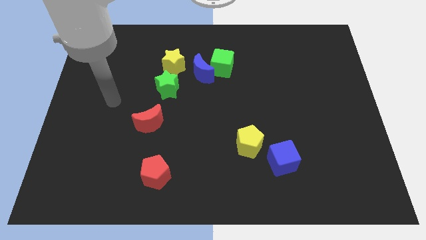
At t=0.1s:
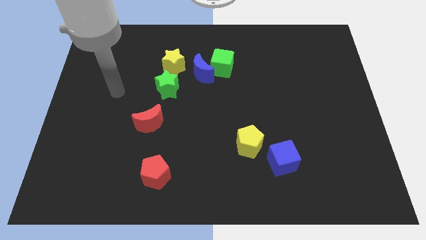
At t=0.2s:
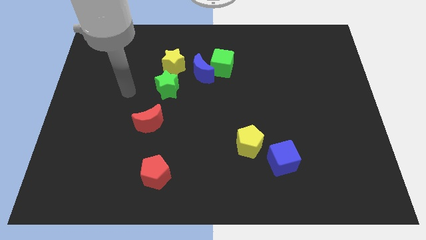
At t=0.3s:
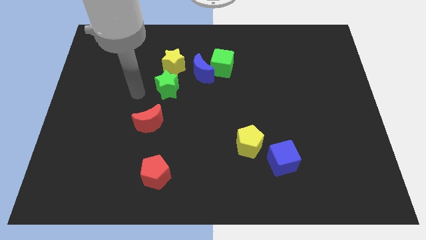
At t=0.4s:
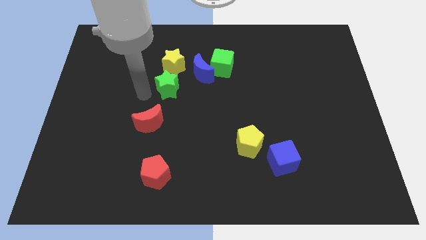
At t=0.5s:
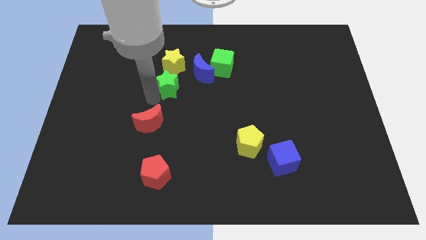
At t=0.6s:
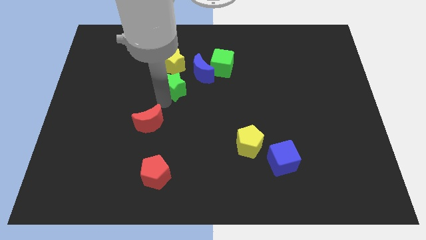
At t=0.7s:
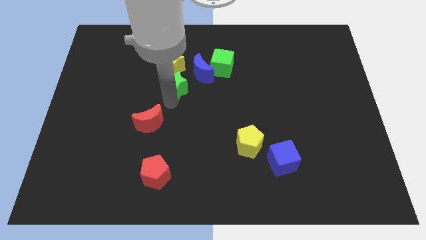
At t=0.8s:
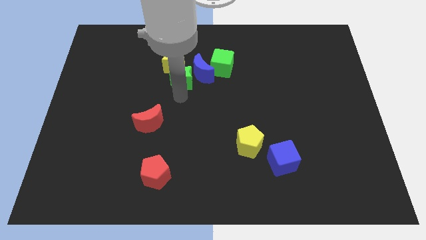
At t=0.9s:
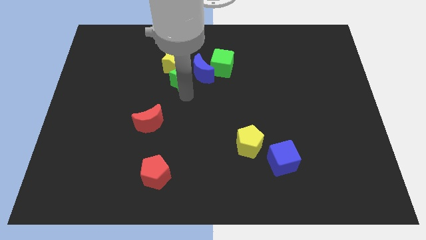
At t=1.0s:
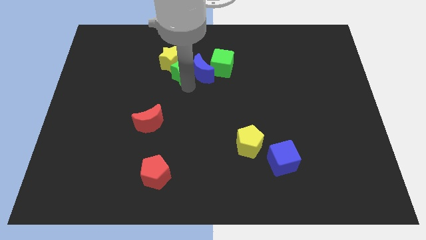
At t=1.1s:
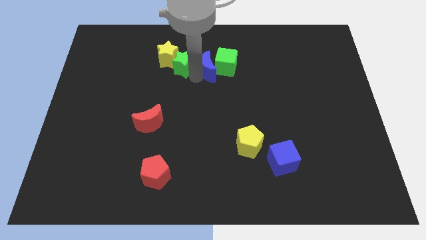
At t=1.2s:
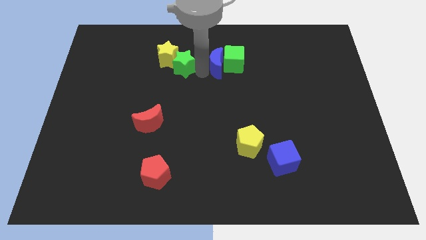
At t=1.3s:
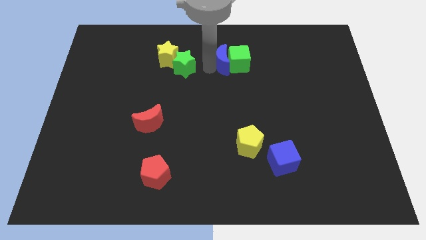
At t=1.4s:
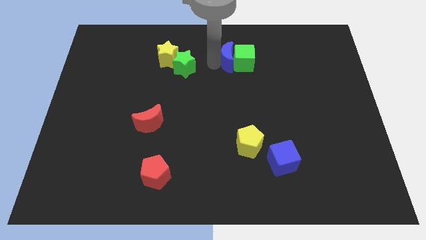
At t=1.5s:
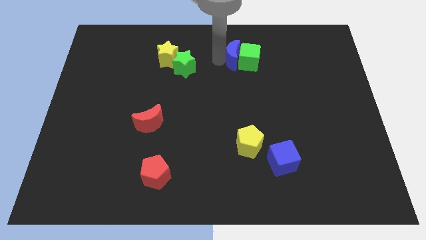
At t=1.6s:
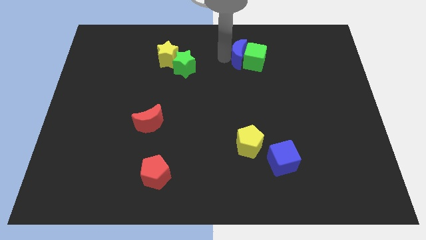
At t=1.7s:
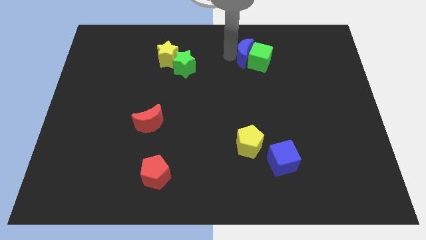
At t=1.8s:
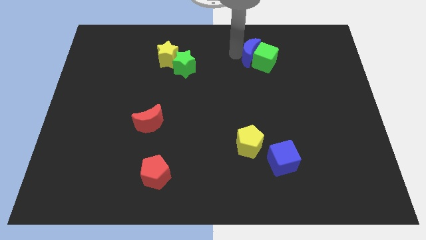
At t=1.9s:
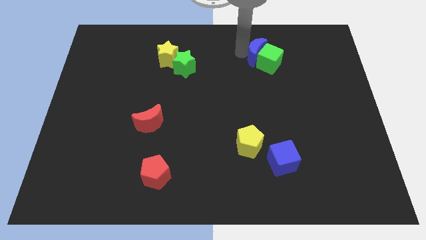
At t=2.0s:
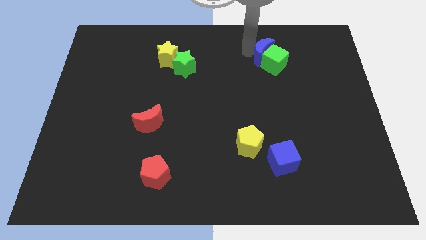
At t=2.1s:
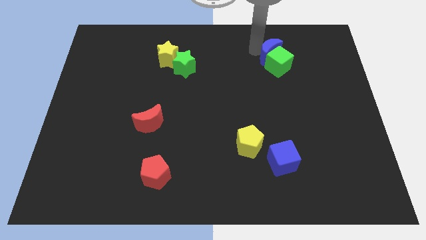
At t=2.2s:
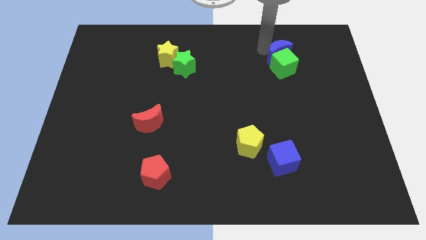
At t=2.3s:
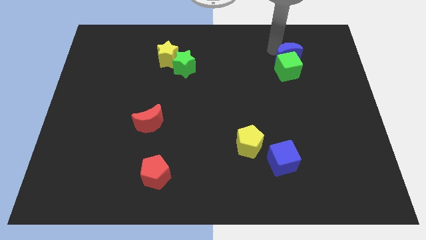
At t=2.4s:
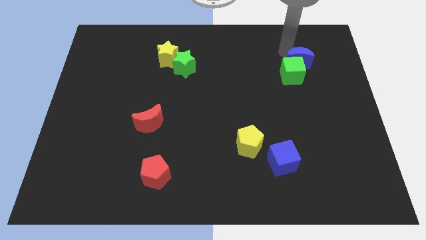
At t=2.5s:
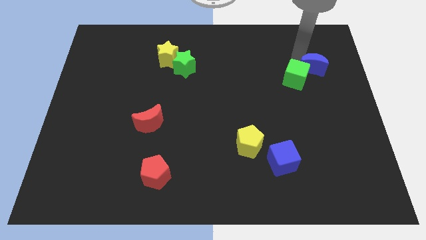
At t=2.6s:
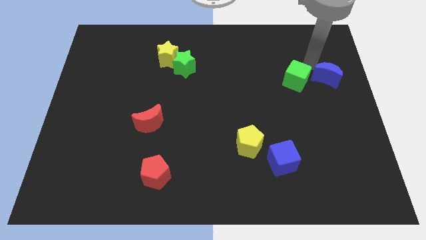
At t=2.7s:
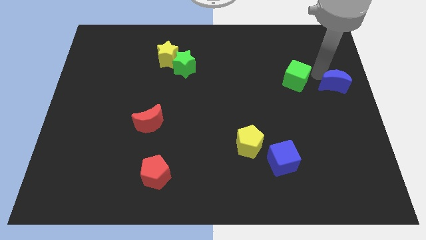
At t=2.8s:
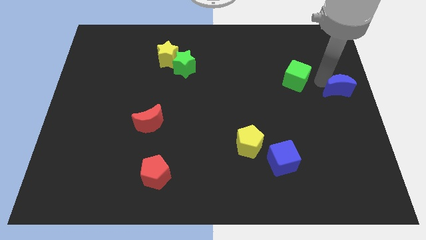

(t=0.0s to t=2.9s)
move the green cube away from the blue moon

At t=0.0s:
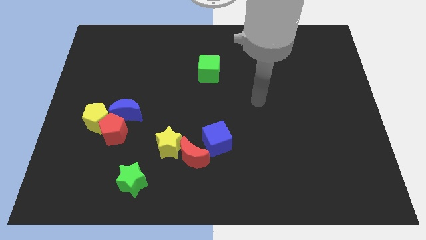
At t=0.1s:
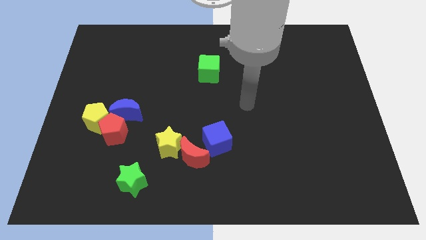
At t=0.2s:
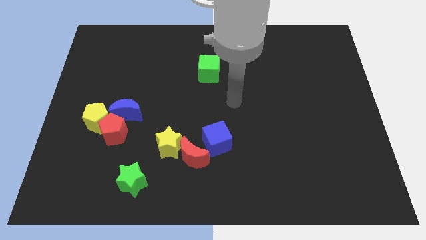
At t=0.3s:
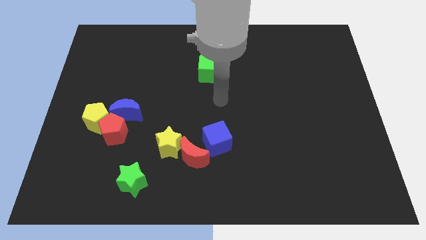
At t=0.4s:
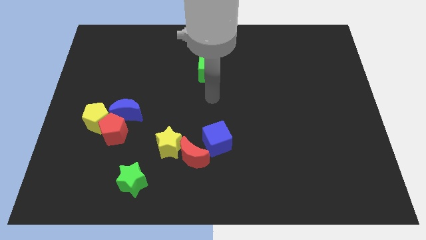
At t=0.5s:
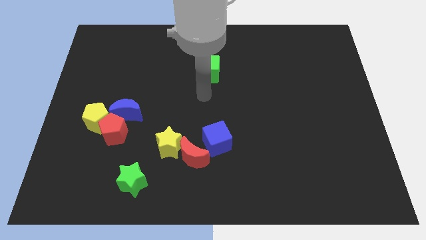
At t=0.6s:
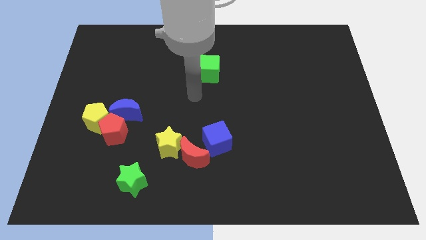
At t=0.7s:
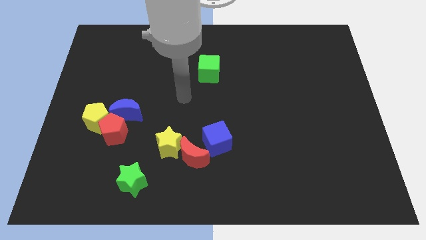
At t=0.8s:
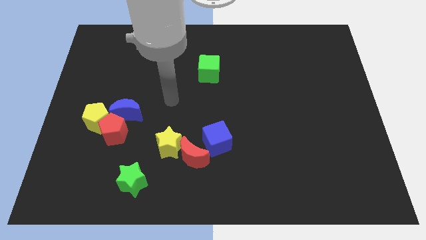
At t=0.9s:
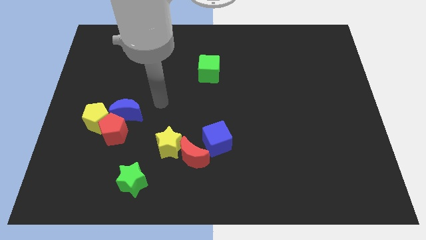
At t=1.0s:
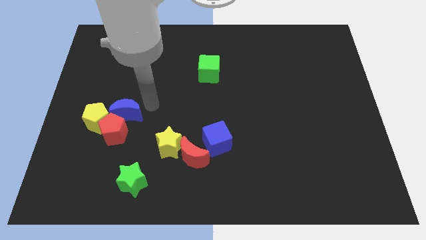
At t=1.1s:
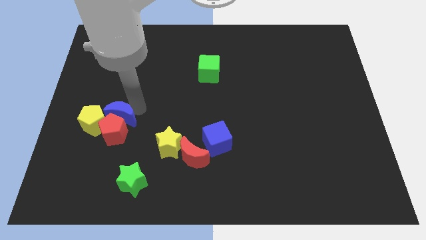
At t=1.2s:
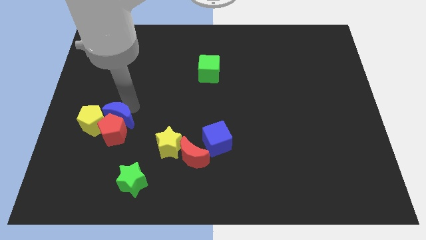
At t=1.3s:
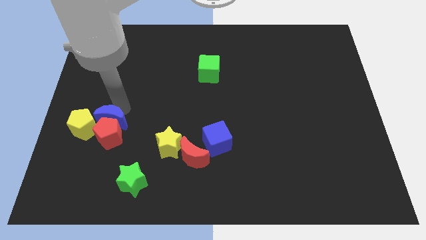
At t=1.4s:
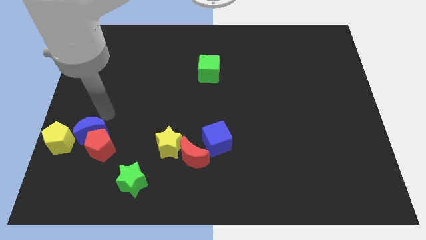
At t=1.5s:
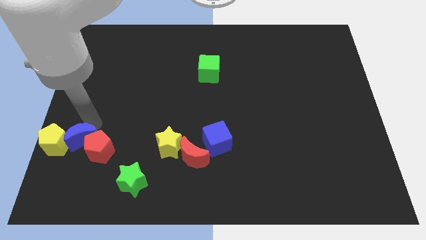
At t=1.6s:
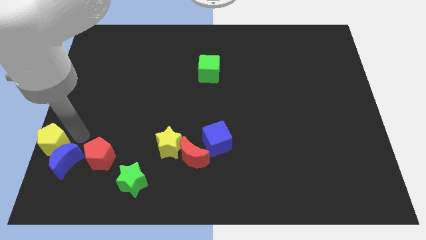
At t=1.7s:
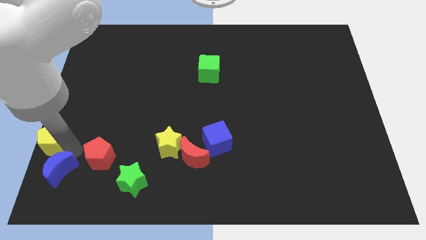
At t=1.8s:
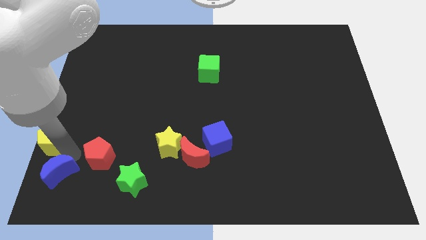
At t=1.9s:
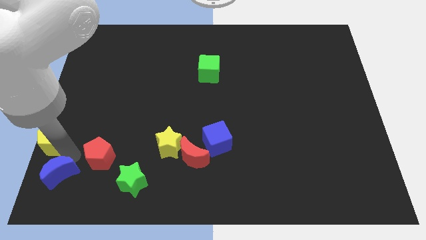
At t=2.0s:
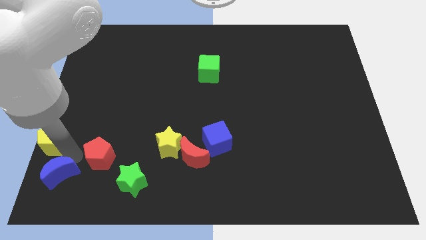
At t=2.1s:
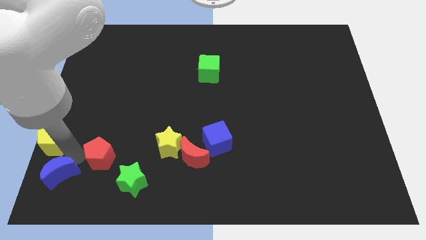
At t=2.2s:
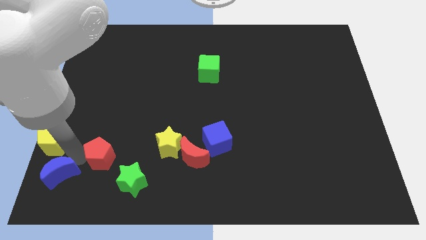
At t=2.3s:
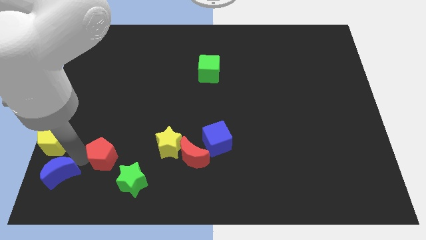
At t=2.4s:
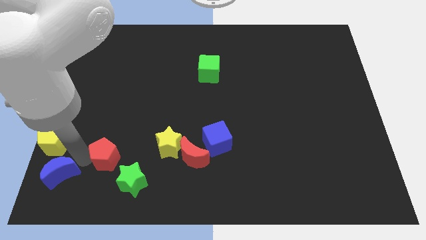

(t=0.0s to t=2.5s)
pull the red pentagon apart from the yellow pentagon and blue moon

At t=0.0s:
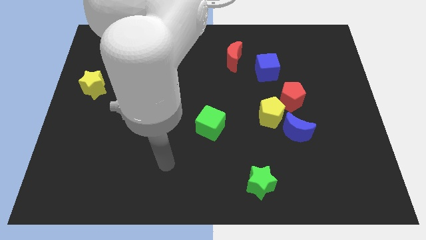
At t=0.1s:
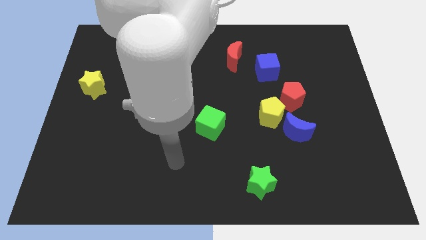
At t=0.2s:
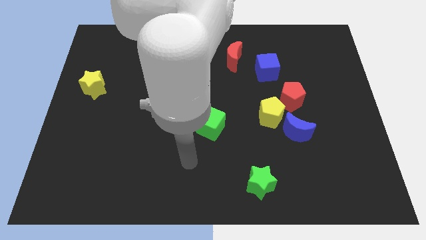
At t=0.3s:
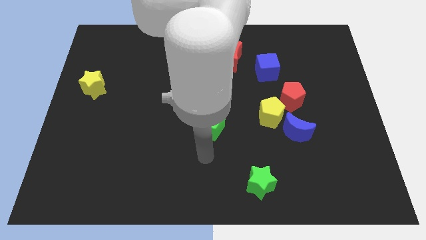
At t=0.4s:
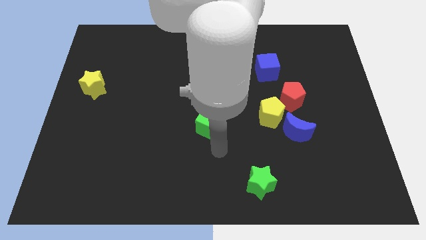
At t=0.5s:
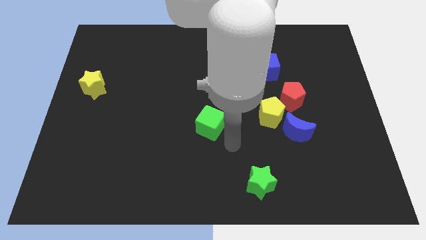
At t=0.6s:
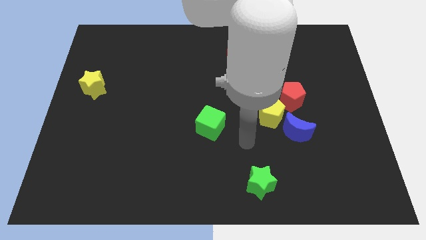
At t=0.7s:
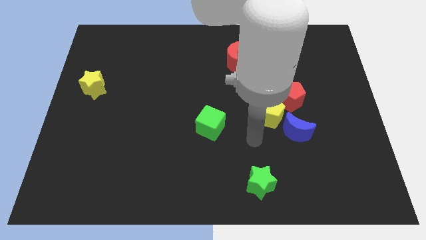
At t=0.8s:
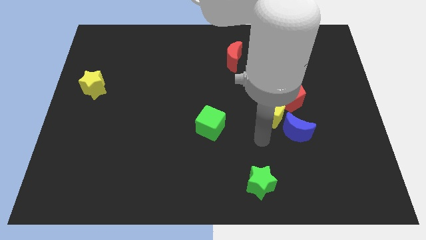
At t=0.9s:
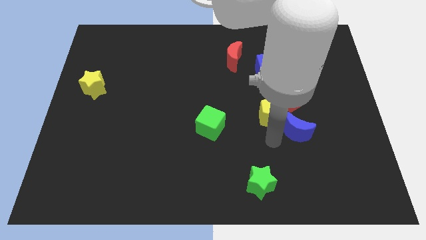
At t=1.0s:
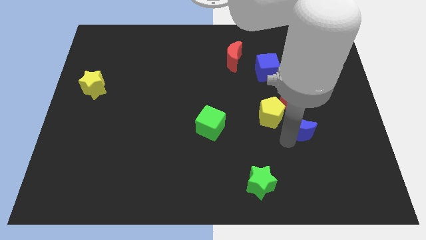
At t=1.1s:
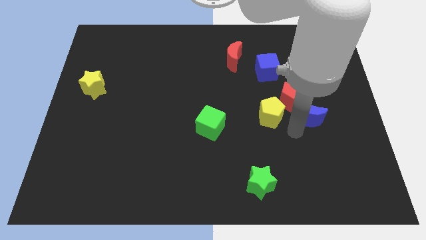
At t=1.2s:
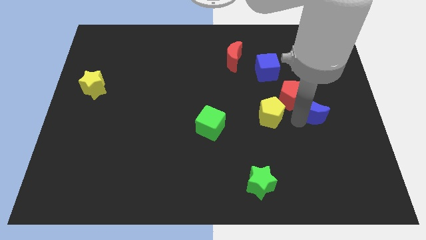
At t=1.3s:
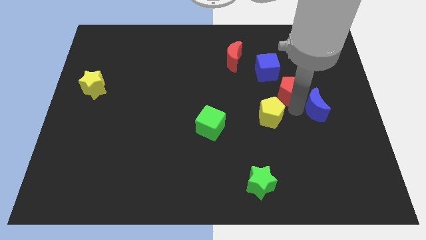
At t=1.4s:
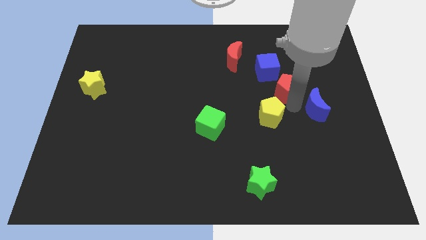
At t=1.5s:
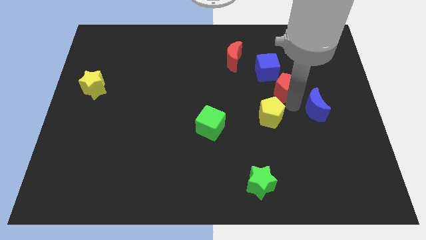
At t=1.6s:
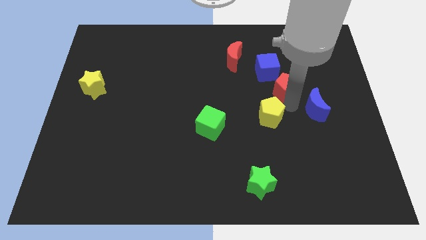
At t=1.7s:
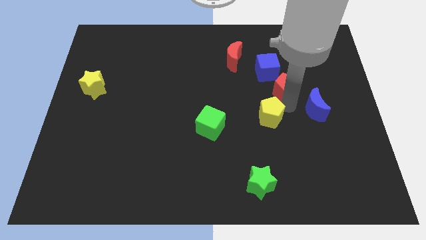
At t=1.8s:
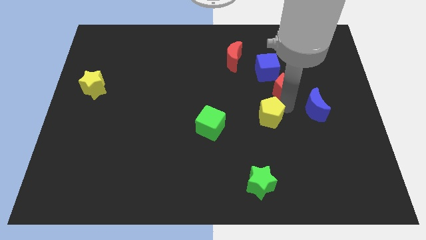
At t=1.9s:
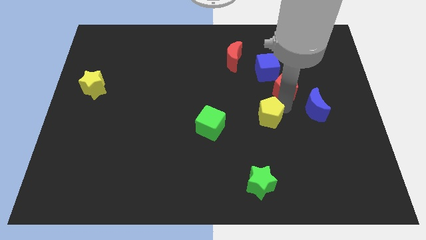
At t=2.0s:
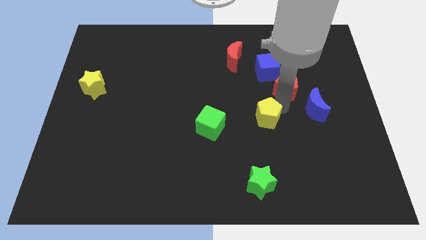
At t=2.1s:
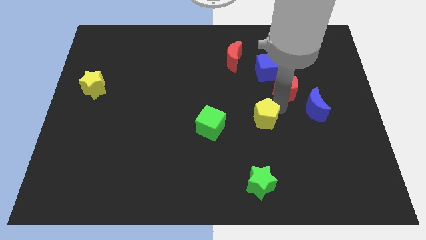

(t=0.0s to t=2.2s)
pull the yellow pentagon apart from the blue moon and red pentagon

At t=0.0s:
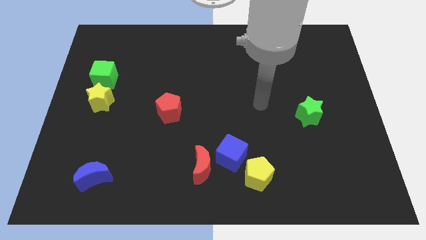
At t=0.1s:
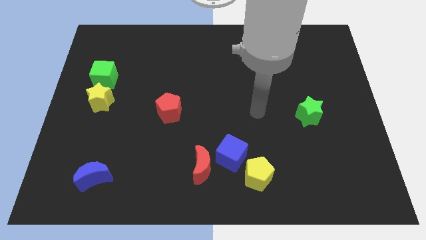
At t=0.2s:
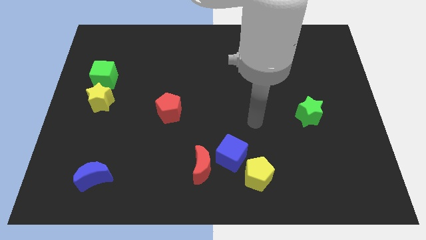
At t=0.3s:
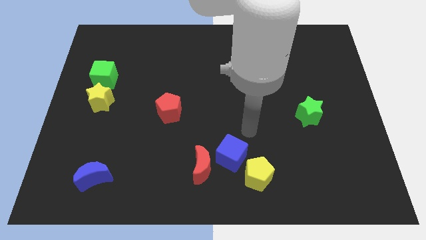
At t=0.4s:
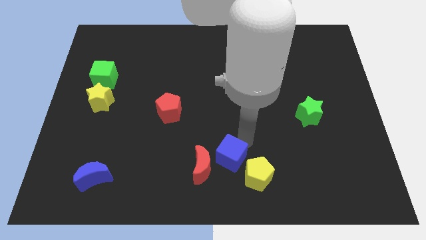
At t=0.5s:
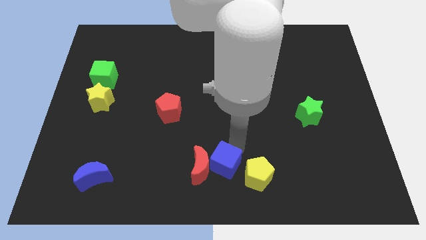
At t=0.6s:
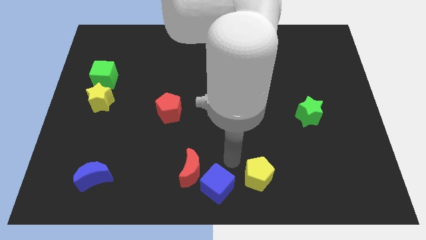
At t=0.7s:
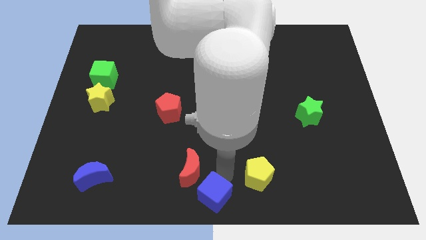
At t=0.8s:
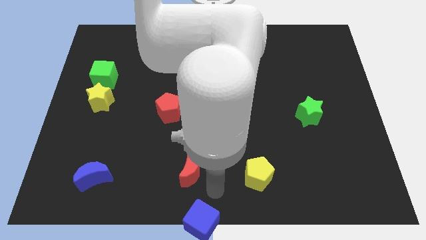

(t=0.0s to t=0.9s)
separate the red moon from the blue cube

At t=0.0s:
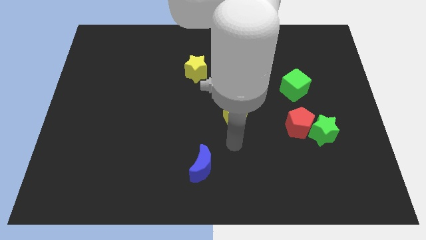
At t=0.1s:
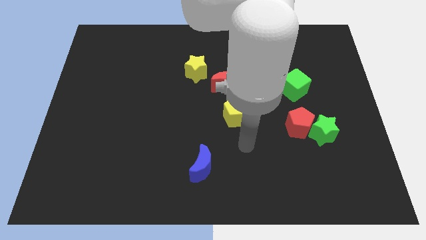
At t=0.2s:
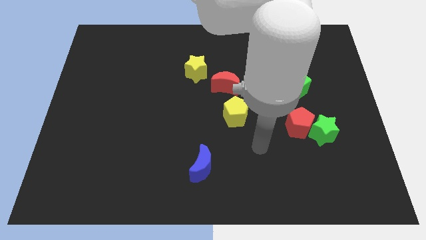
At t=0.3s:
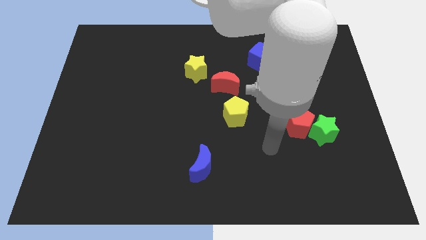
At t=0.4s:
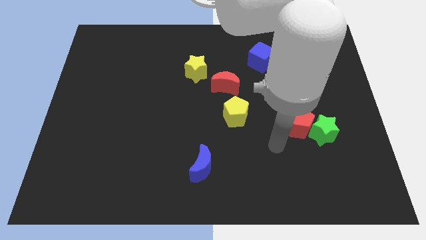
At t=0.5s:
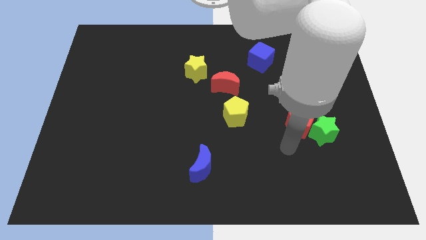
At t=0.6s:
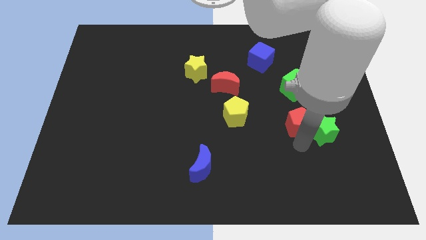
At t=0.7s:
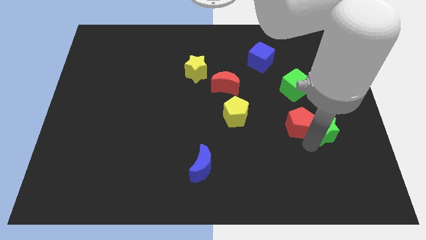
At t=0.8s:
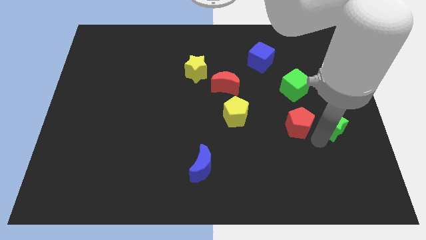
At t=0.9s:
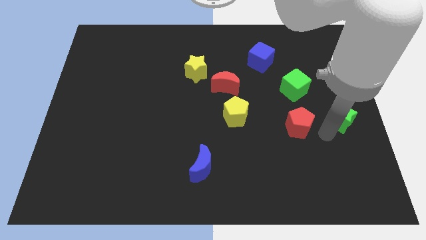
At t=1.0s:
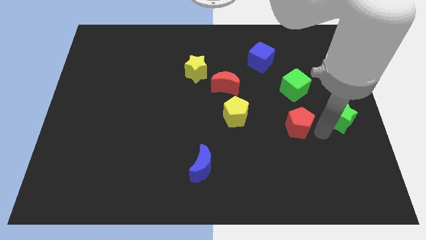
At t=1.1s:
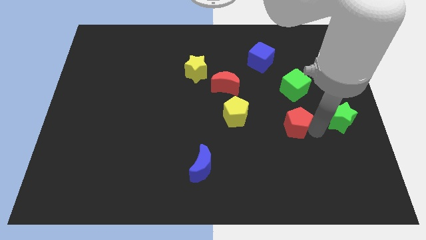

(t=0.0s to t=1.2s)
pull the red pentagon apart from the green star
